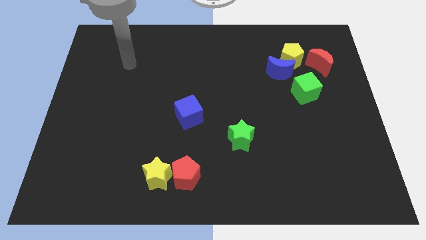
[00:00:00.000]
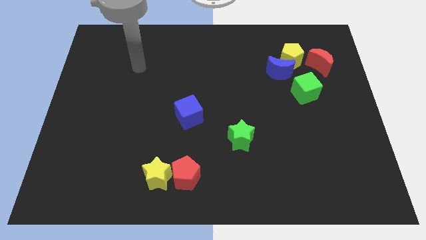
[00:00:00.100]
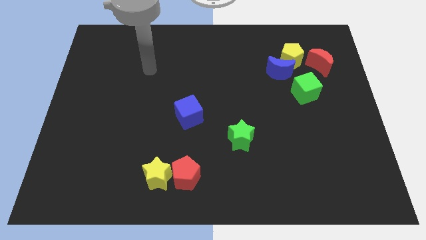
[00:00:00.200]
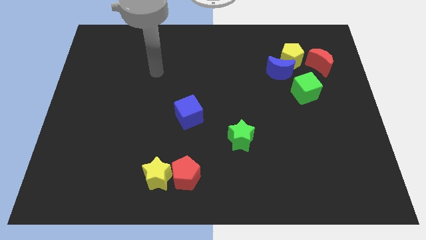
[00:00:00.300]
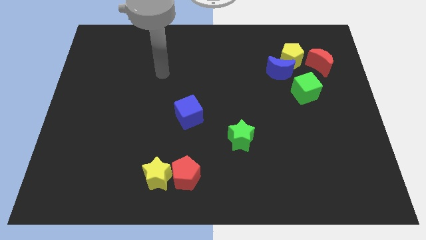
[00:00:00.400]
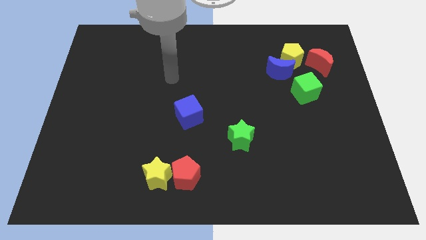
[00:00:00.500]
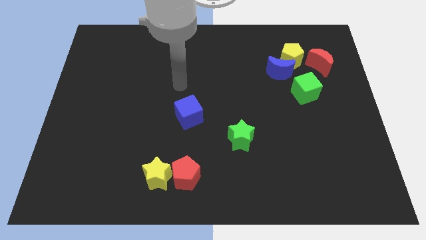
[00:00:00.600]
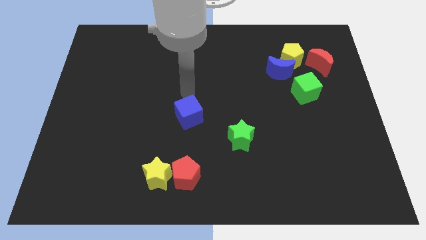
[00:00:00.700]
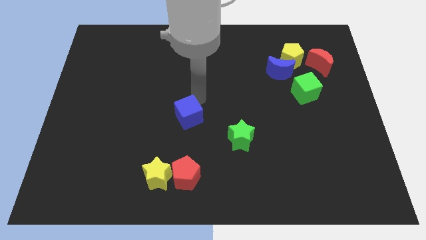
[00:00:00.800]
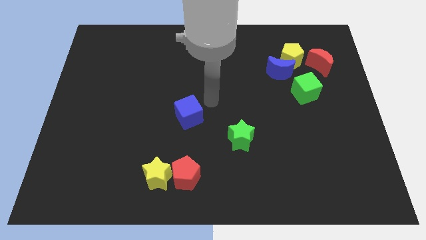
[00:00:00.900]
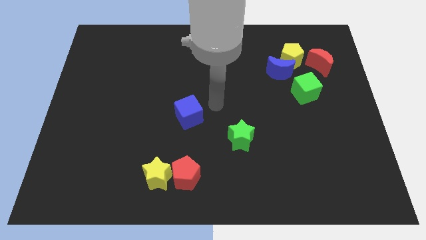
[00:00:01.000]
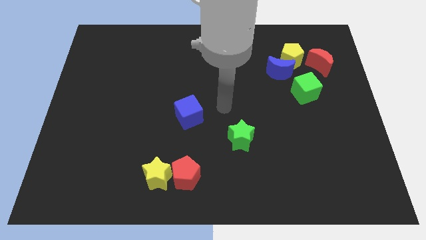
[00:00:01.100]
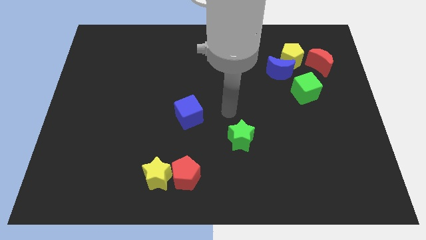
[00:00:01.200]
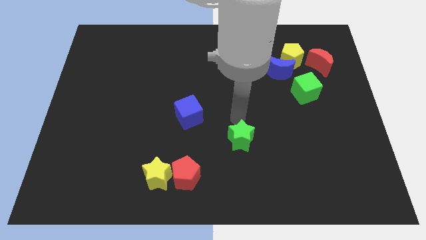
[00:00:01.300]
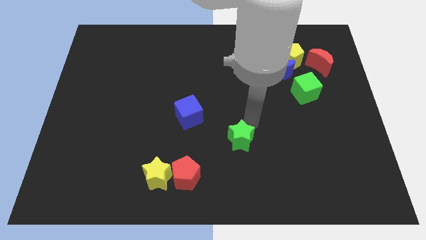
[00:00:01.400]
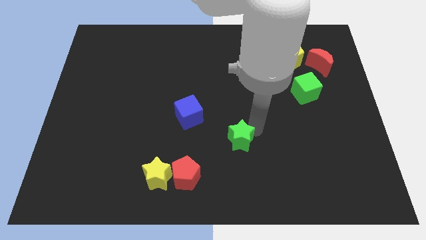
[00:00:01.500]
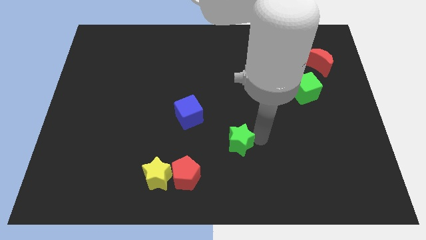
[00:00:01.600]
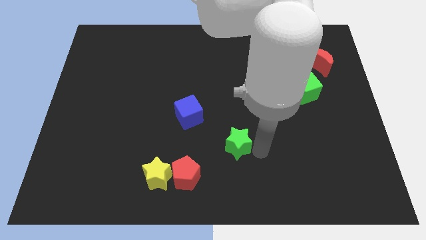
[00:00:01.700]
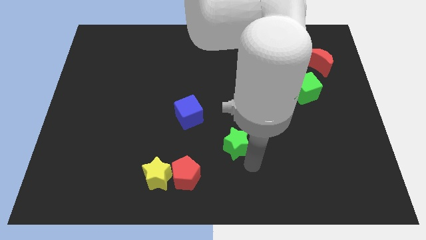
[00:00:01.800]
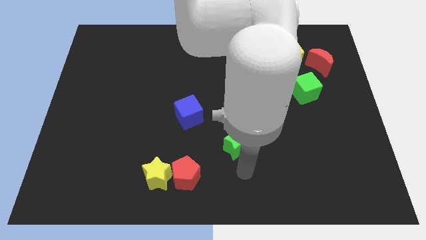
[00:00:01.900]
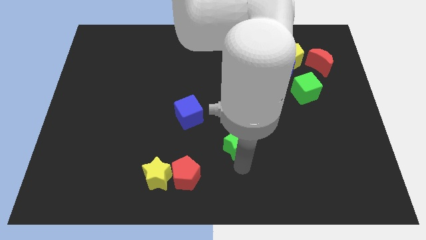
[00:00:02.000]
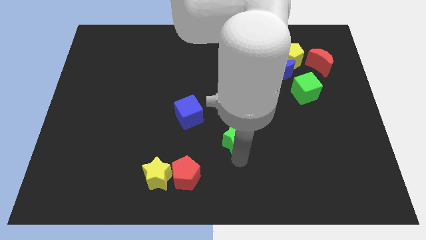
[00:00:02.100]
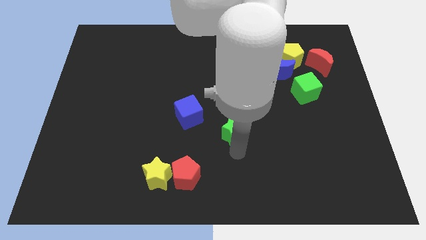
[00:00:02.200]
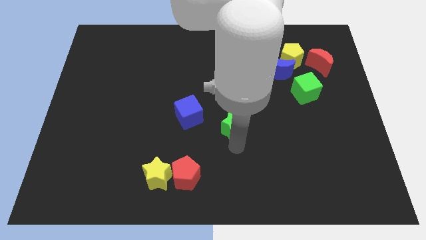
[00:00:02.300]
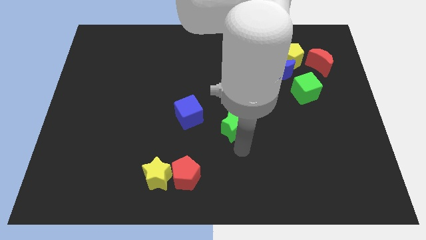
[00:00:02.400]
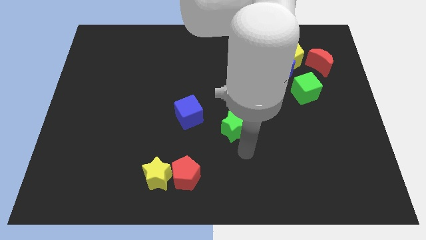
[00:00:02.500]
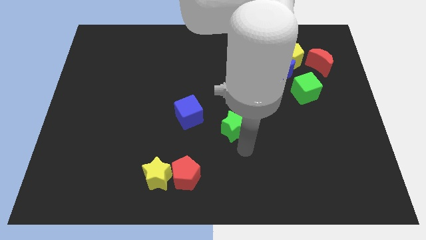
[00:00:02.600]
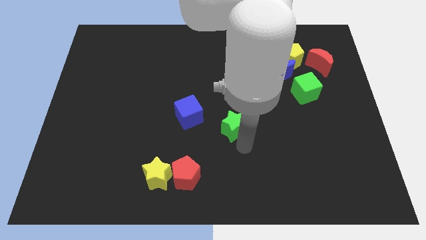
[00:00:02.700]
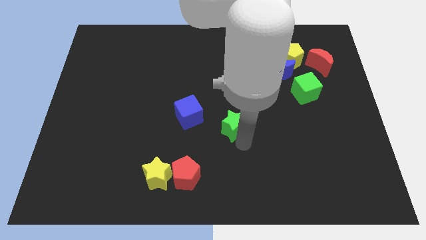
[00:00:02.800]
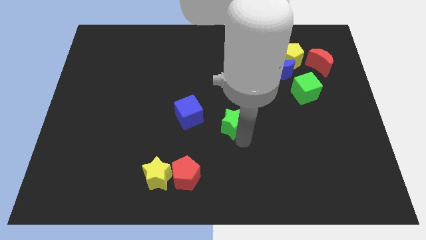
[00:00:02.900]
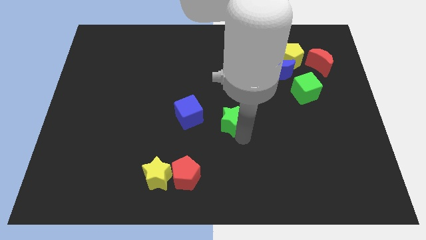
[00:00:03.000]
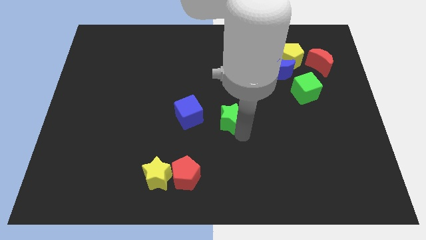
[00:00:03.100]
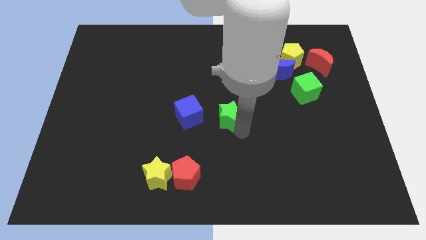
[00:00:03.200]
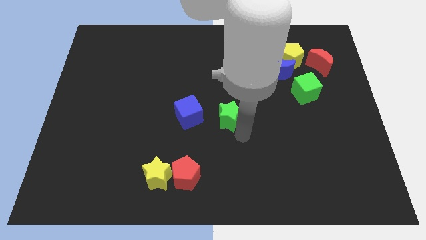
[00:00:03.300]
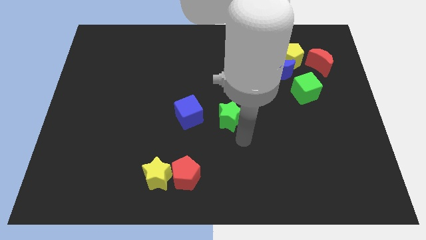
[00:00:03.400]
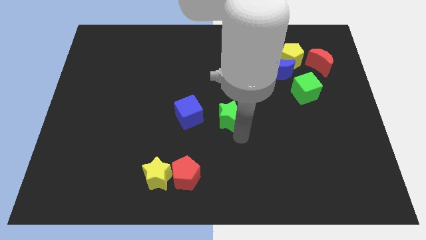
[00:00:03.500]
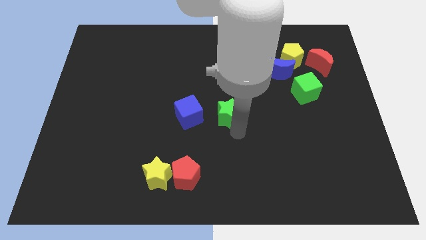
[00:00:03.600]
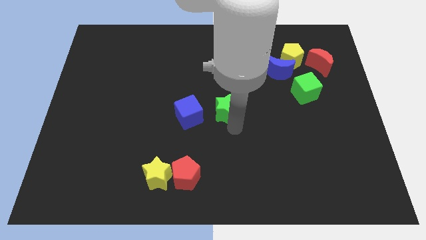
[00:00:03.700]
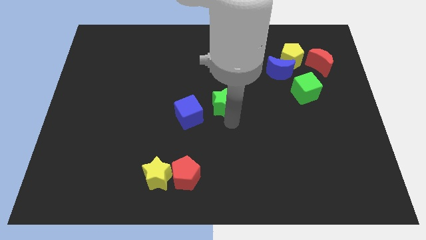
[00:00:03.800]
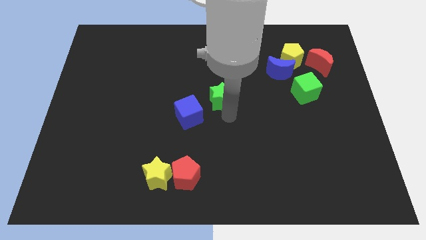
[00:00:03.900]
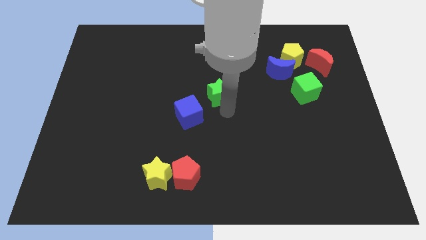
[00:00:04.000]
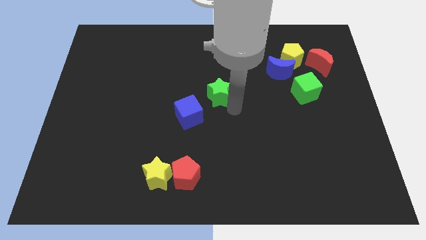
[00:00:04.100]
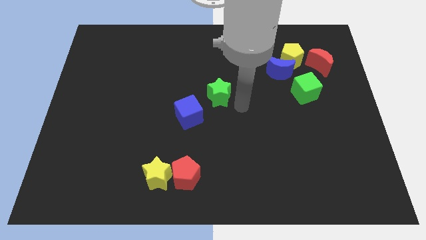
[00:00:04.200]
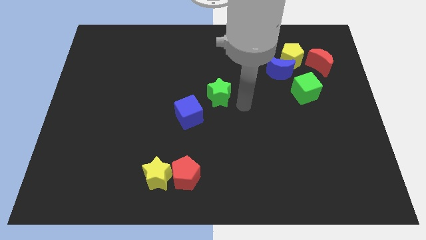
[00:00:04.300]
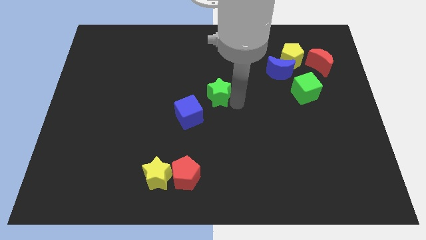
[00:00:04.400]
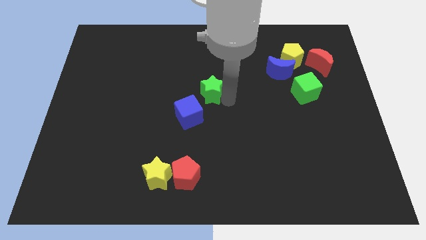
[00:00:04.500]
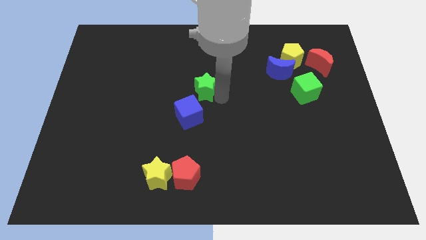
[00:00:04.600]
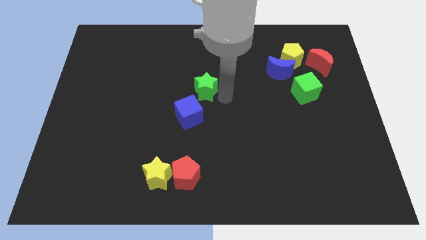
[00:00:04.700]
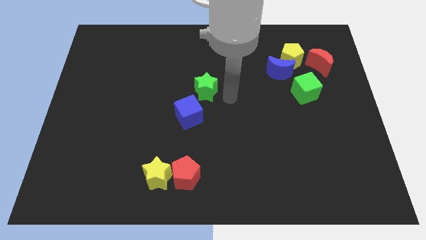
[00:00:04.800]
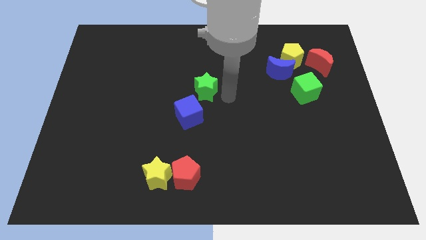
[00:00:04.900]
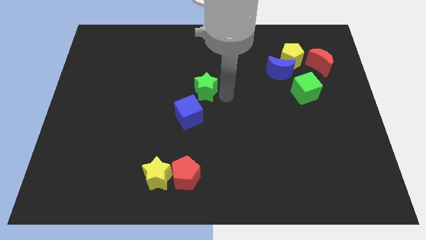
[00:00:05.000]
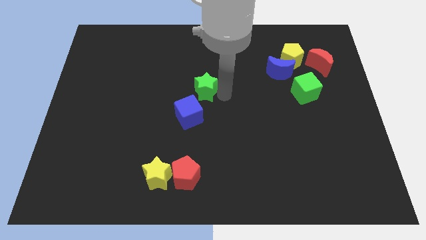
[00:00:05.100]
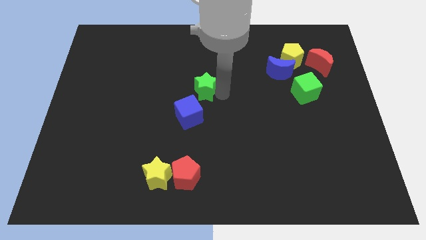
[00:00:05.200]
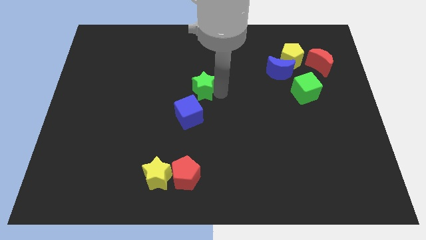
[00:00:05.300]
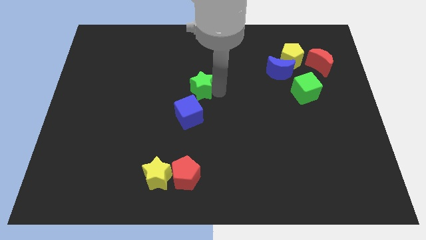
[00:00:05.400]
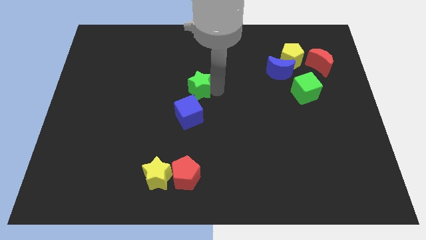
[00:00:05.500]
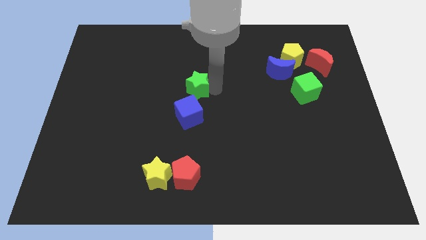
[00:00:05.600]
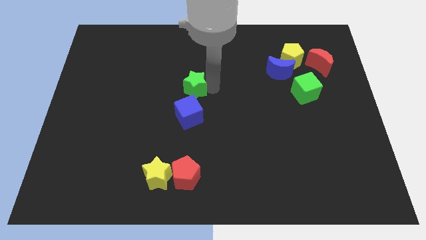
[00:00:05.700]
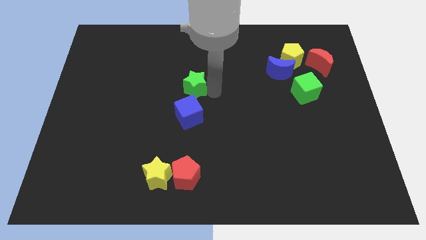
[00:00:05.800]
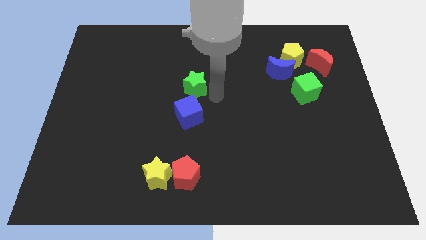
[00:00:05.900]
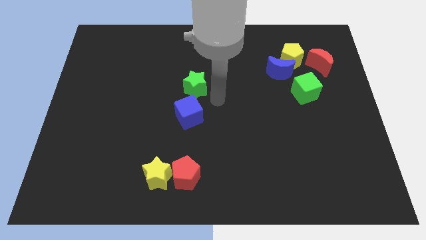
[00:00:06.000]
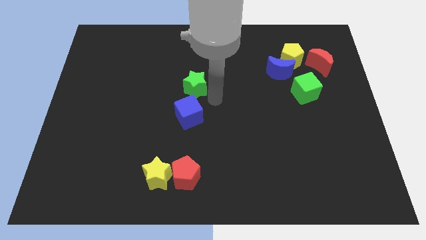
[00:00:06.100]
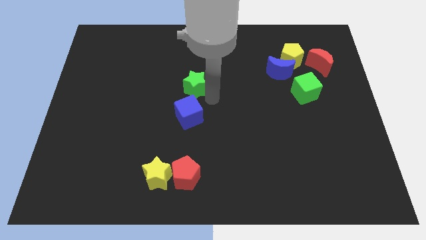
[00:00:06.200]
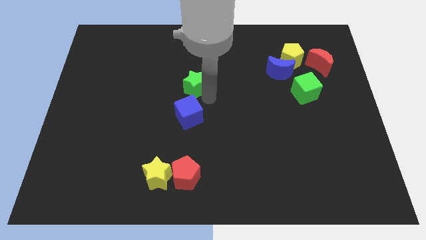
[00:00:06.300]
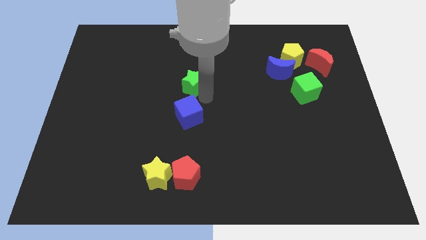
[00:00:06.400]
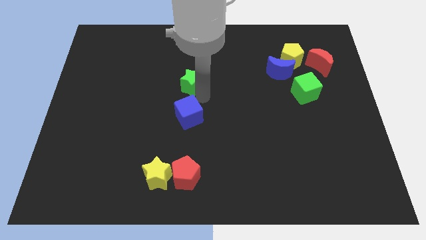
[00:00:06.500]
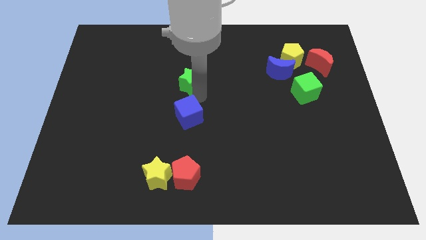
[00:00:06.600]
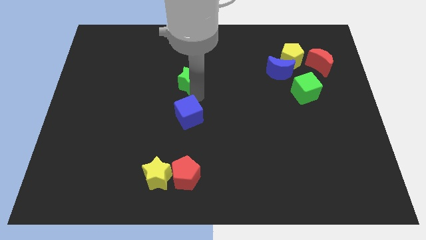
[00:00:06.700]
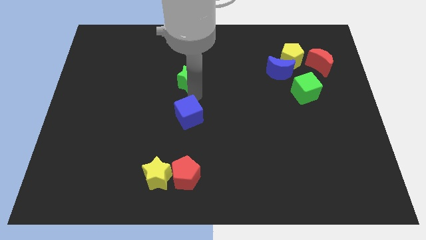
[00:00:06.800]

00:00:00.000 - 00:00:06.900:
push the green star diagonally up and to the left

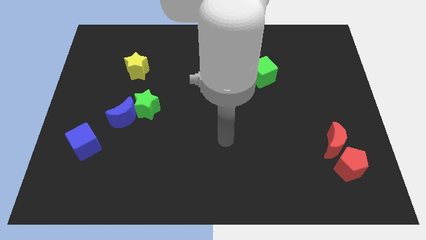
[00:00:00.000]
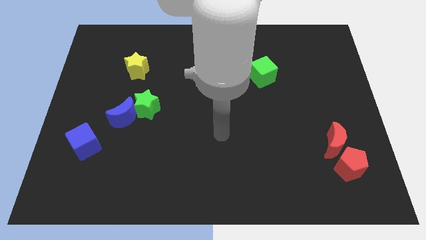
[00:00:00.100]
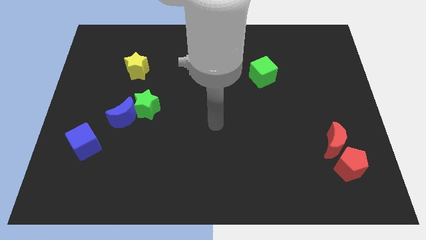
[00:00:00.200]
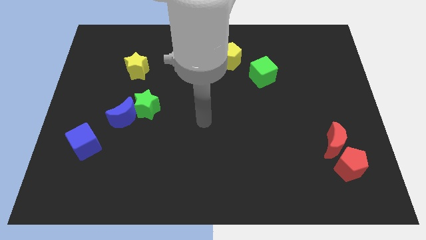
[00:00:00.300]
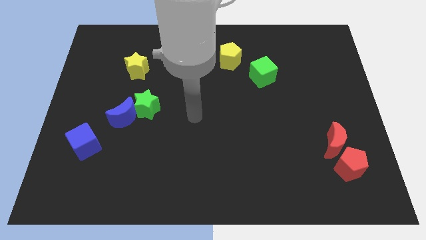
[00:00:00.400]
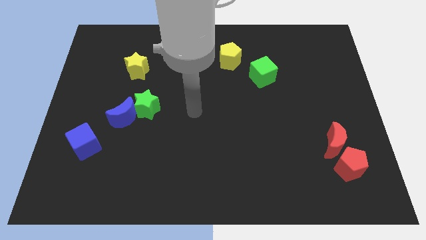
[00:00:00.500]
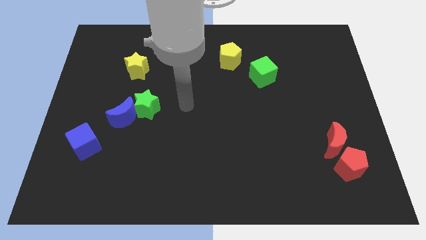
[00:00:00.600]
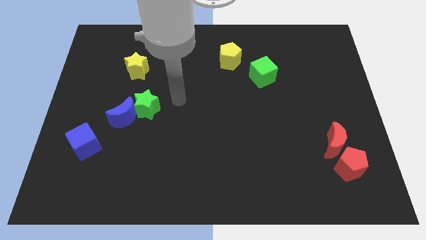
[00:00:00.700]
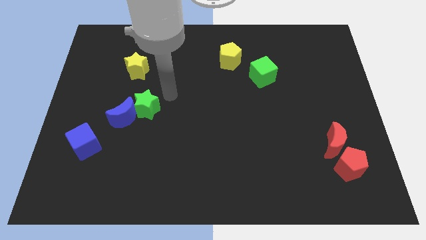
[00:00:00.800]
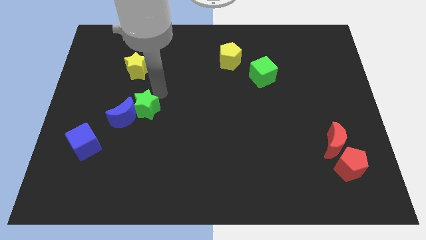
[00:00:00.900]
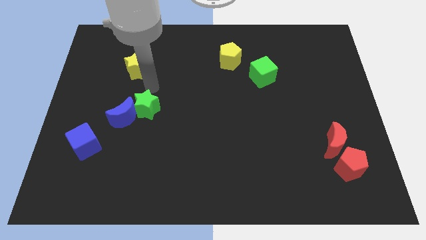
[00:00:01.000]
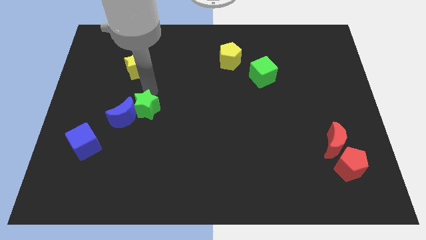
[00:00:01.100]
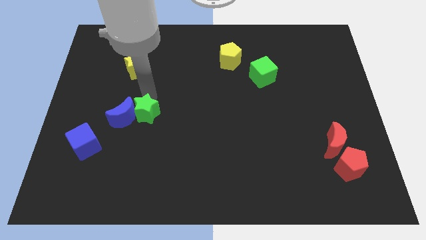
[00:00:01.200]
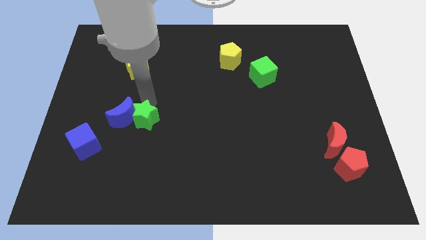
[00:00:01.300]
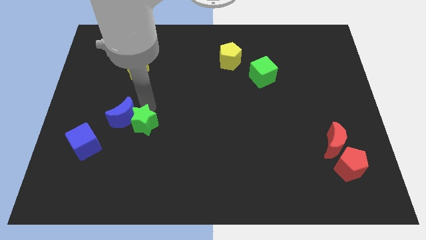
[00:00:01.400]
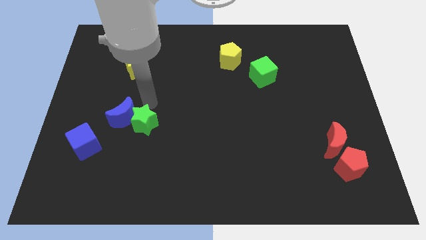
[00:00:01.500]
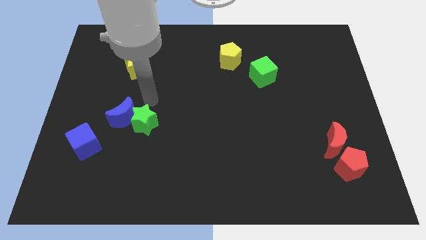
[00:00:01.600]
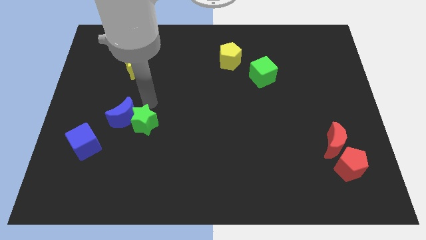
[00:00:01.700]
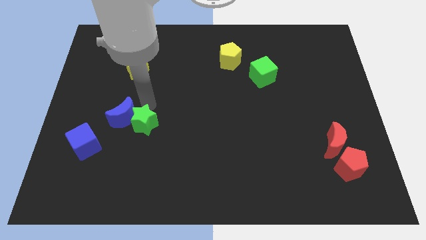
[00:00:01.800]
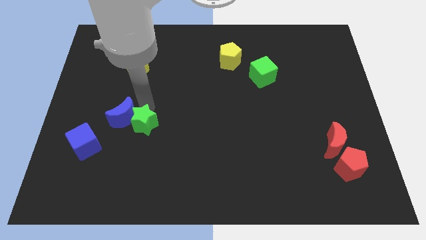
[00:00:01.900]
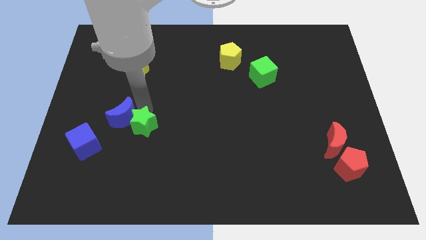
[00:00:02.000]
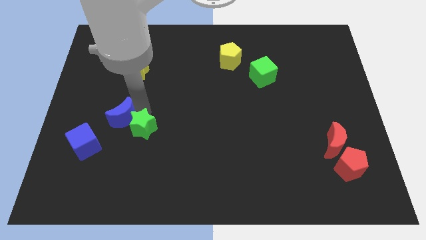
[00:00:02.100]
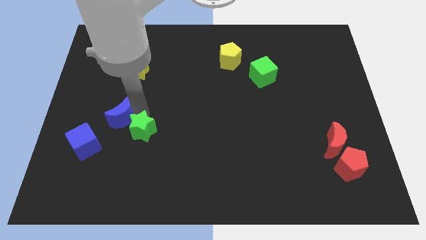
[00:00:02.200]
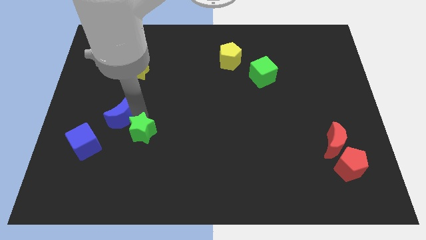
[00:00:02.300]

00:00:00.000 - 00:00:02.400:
slightly slide the green star down
